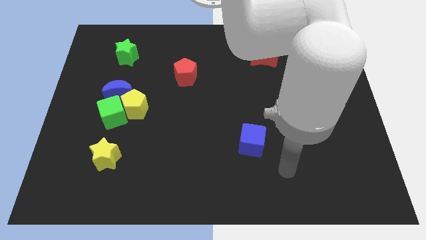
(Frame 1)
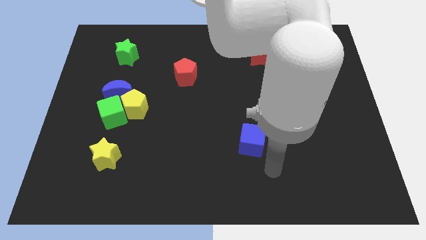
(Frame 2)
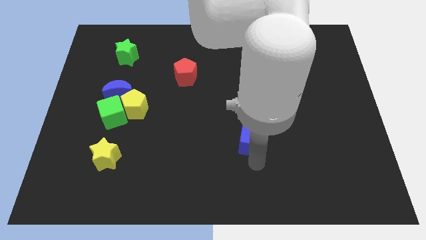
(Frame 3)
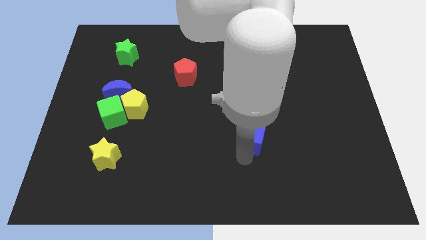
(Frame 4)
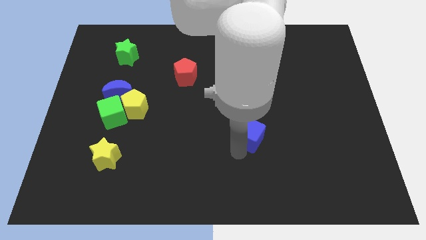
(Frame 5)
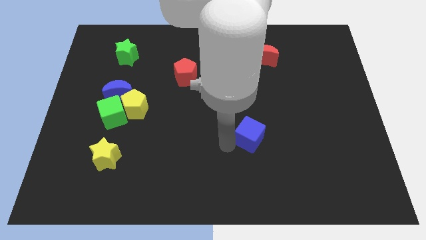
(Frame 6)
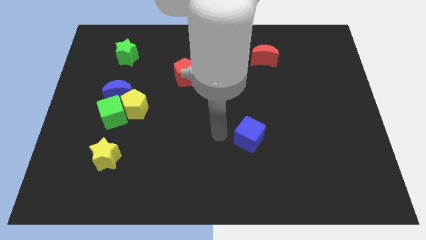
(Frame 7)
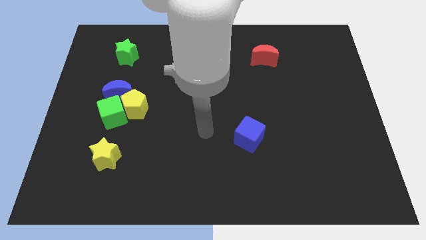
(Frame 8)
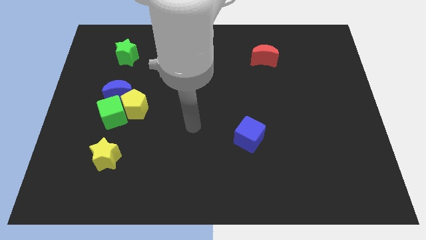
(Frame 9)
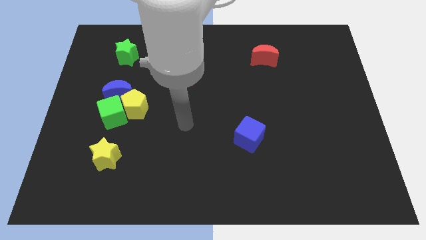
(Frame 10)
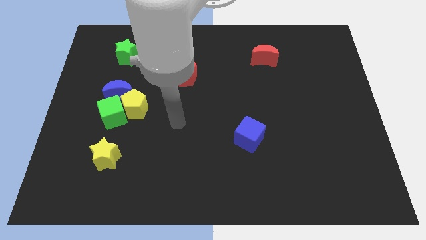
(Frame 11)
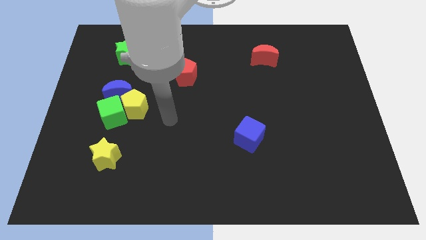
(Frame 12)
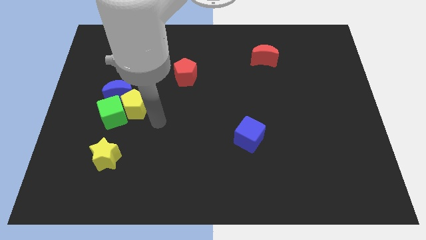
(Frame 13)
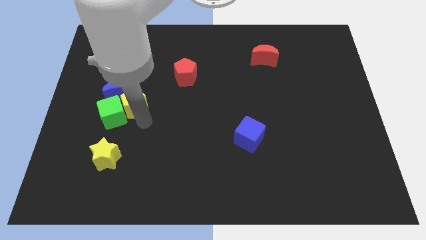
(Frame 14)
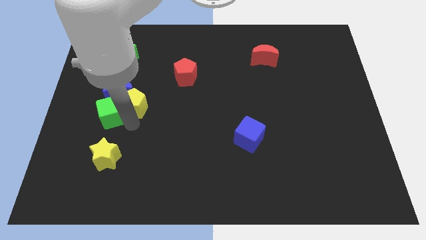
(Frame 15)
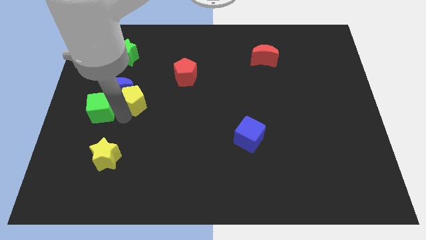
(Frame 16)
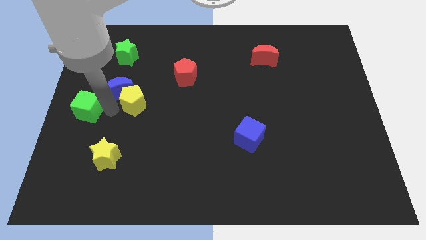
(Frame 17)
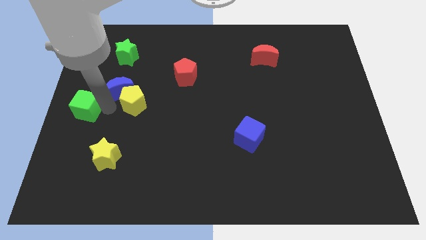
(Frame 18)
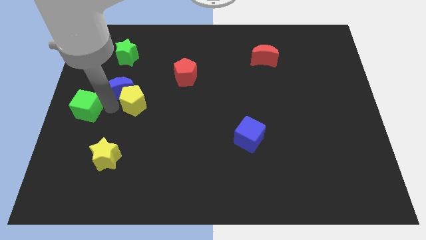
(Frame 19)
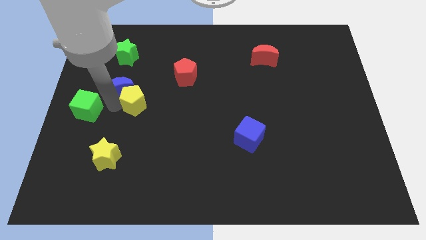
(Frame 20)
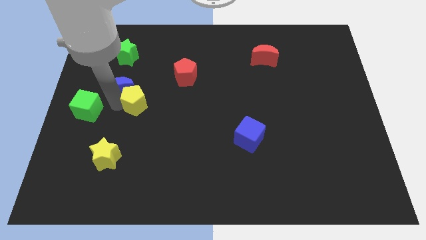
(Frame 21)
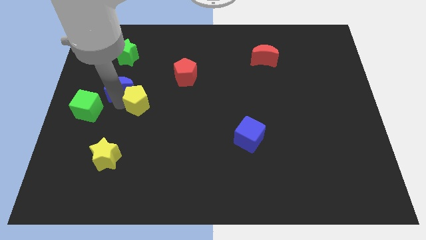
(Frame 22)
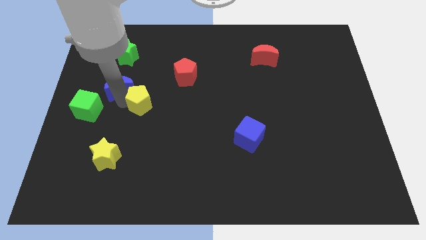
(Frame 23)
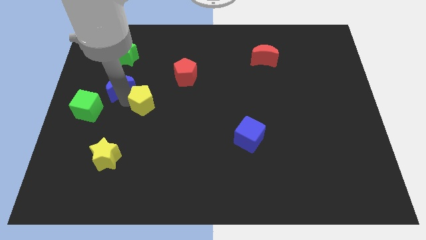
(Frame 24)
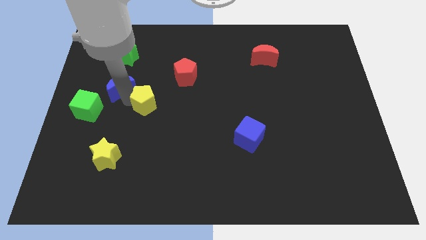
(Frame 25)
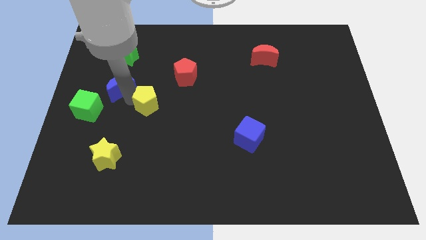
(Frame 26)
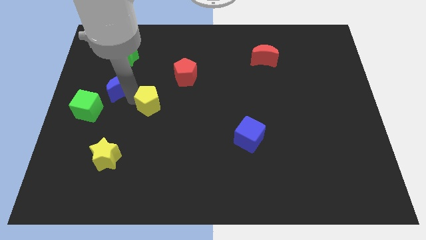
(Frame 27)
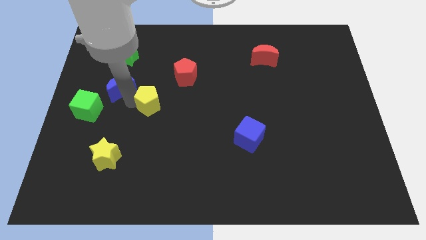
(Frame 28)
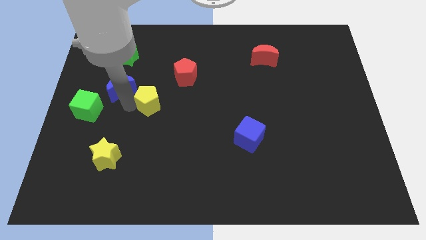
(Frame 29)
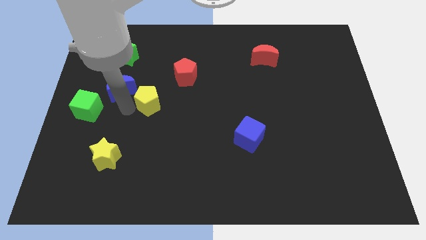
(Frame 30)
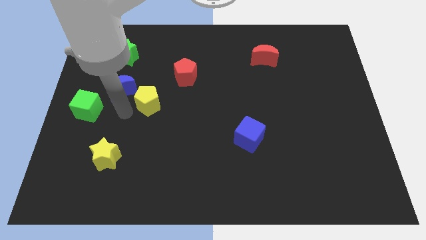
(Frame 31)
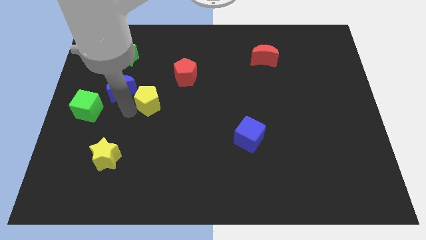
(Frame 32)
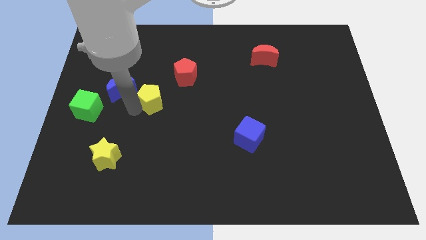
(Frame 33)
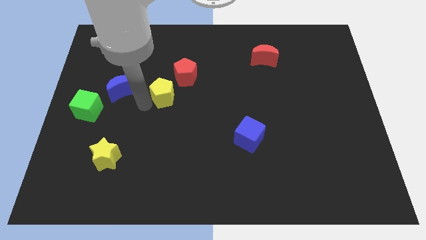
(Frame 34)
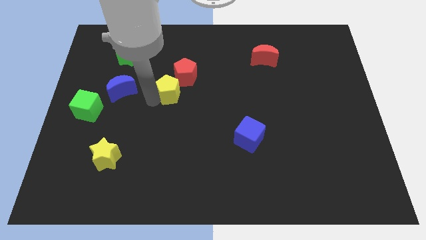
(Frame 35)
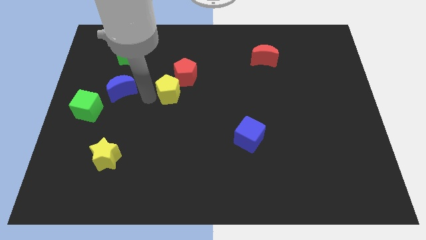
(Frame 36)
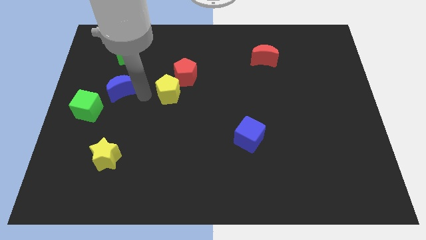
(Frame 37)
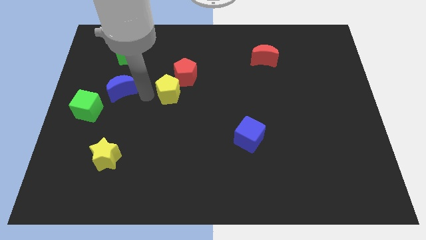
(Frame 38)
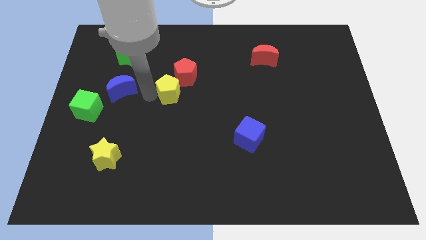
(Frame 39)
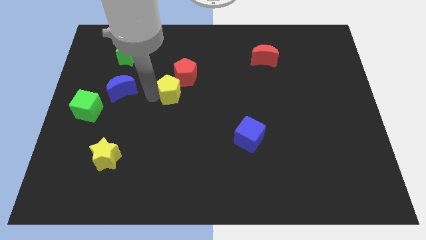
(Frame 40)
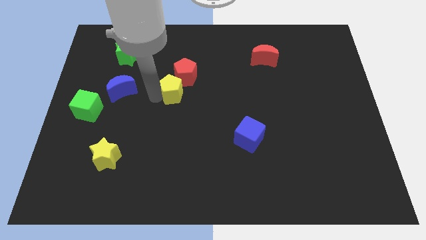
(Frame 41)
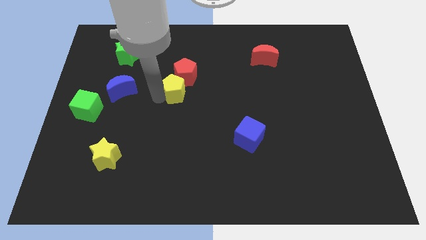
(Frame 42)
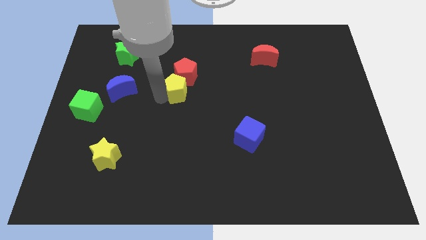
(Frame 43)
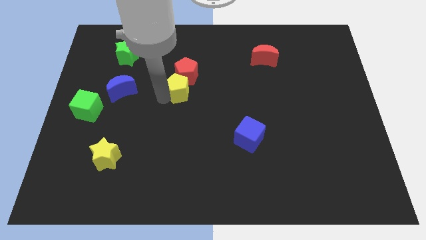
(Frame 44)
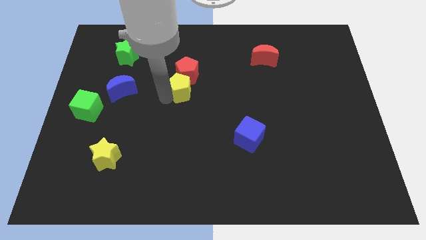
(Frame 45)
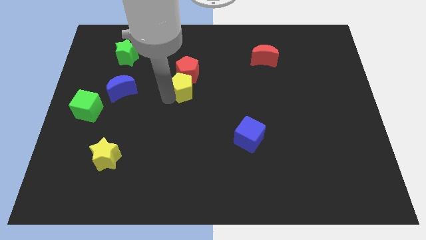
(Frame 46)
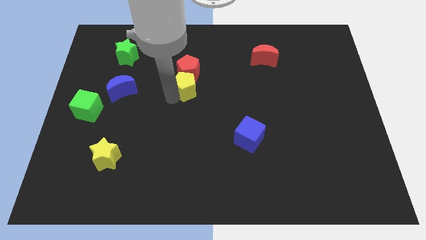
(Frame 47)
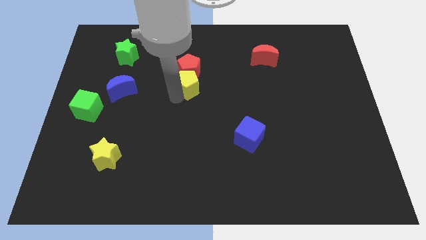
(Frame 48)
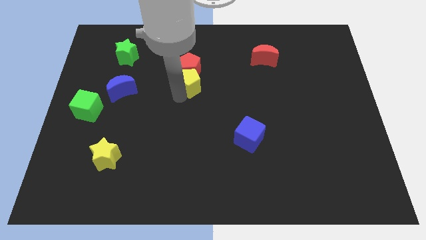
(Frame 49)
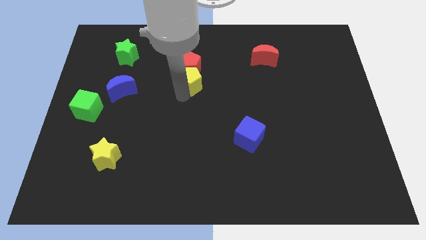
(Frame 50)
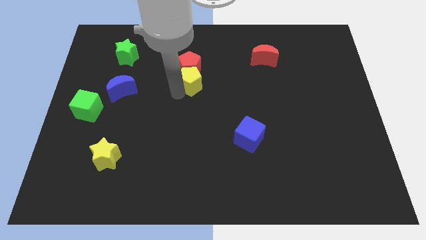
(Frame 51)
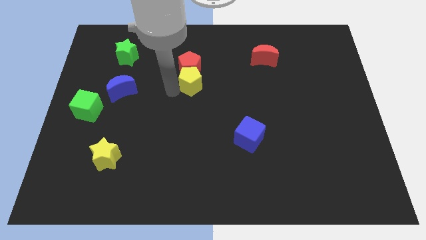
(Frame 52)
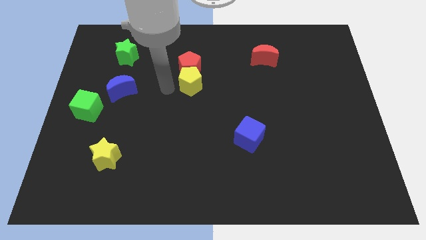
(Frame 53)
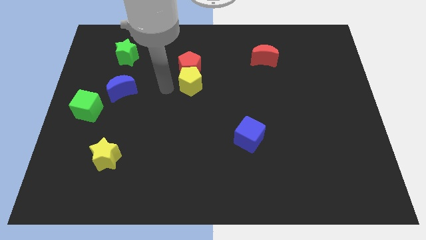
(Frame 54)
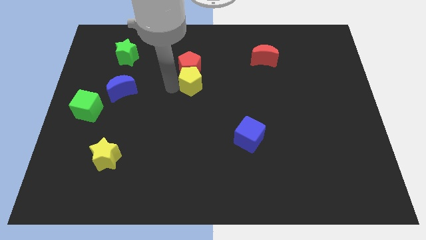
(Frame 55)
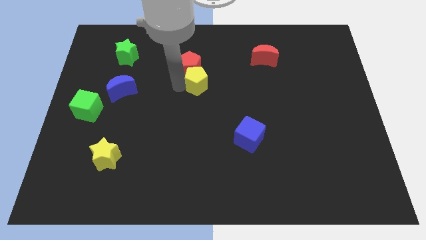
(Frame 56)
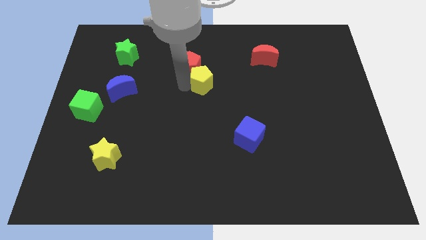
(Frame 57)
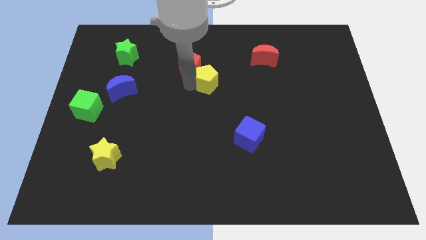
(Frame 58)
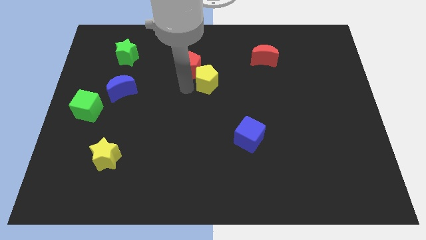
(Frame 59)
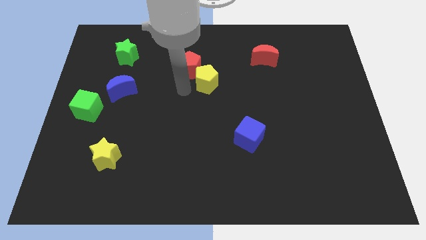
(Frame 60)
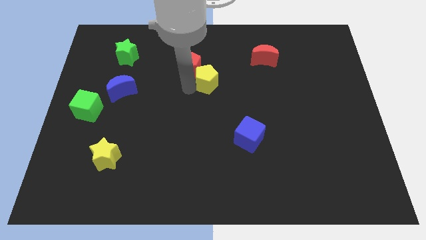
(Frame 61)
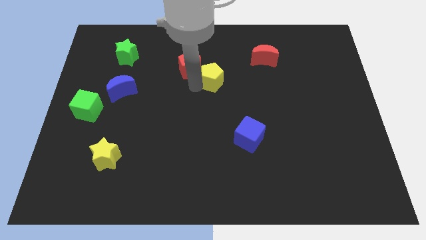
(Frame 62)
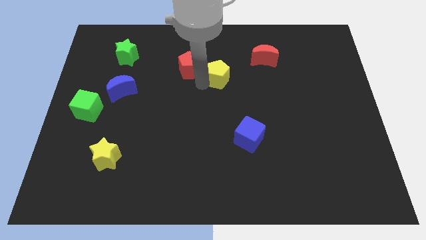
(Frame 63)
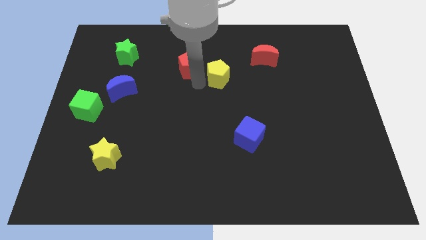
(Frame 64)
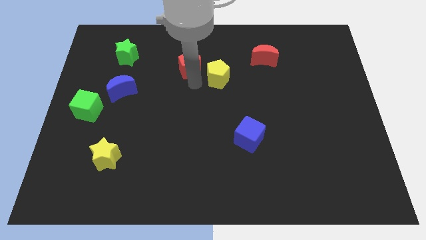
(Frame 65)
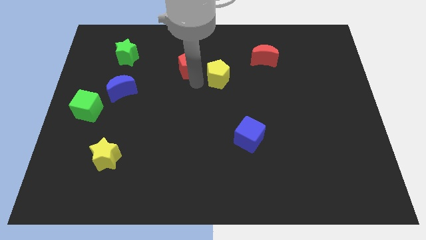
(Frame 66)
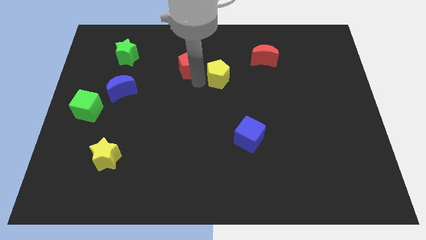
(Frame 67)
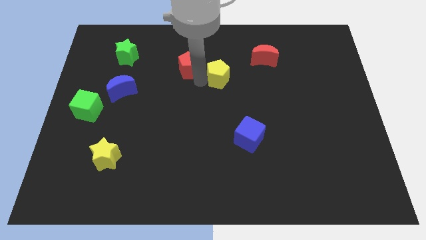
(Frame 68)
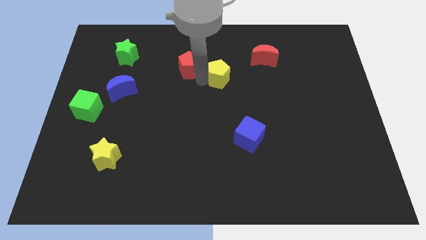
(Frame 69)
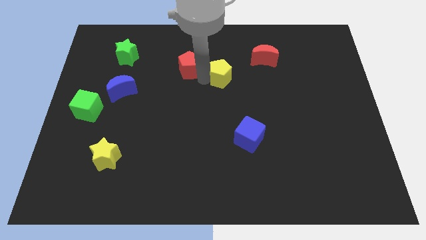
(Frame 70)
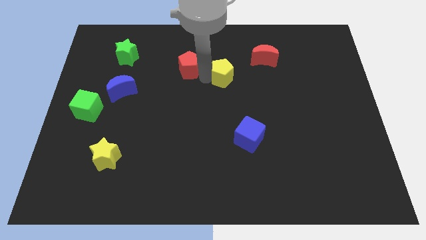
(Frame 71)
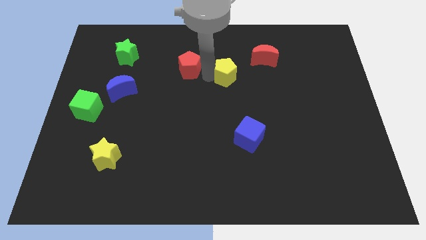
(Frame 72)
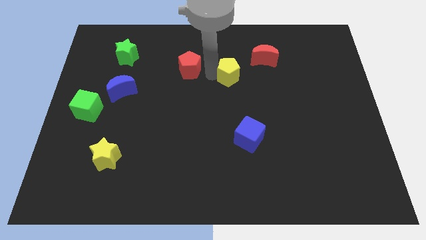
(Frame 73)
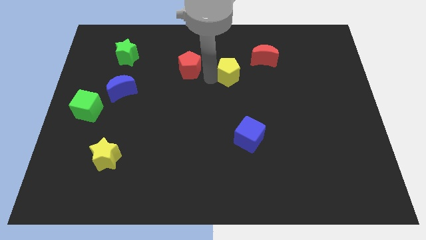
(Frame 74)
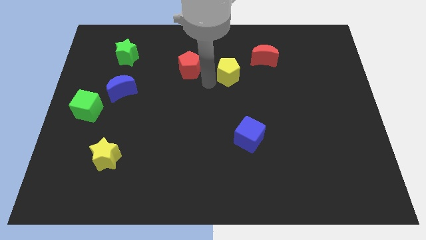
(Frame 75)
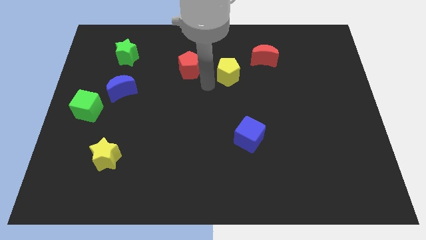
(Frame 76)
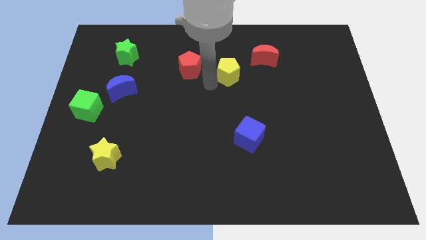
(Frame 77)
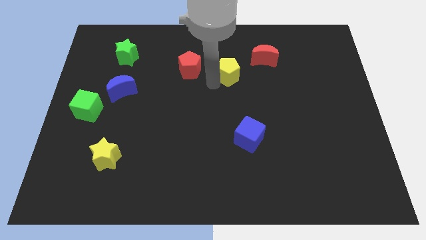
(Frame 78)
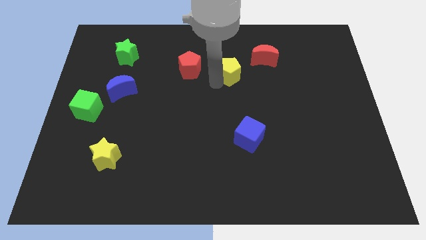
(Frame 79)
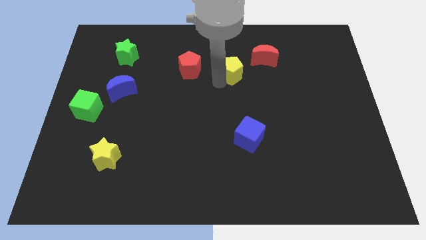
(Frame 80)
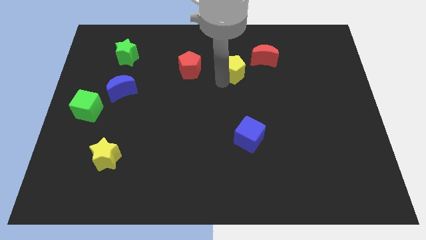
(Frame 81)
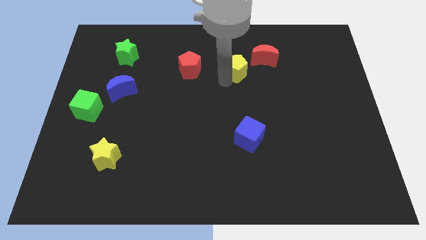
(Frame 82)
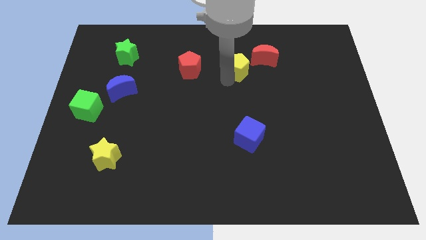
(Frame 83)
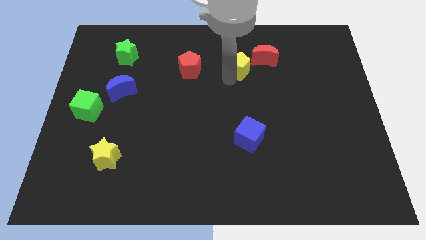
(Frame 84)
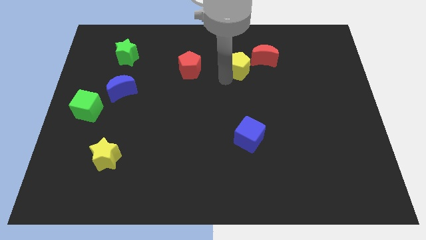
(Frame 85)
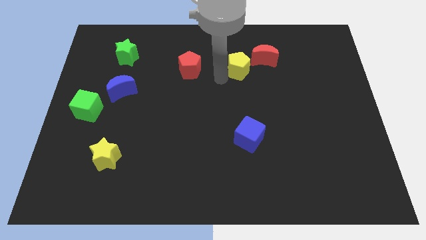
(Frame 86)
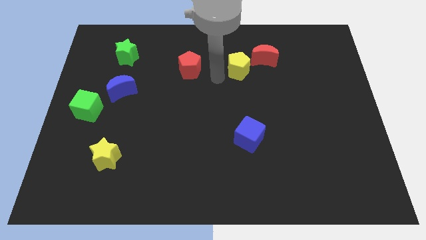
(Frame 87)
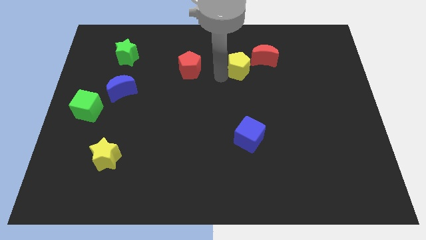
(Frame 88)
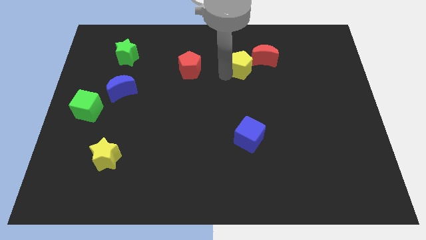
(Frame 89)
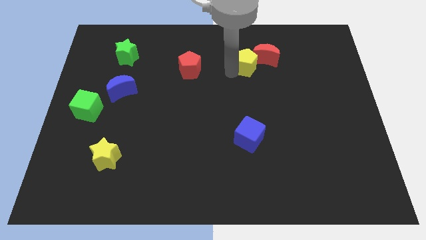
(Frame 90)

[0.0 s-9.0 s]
slide the yellow pentagon next to the red moon
